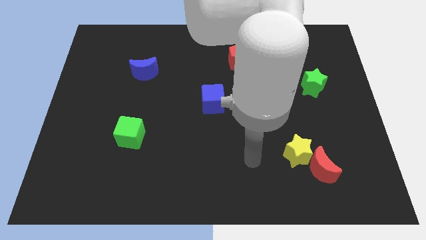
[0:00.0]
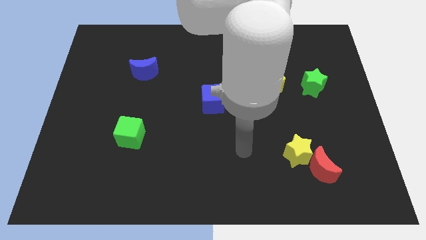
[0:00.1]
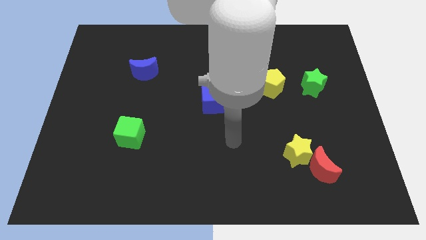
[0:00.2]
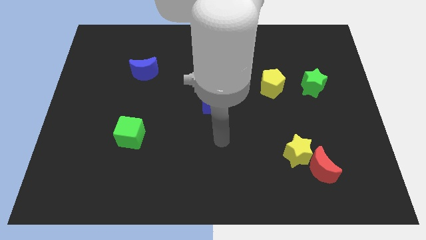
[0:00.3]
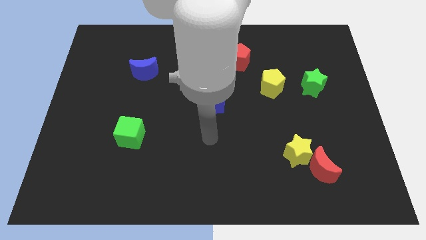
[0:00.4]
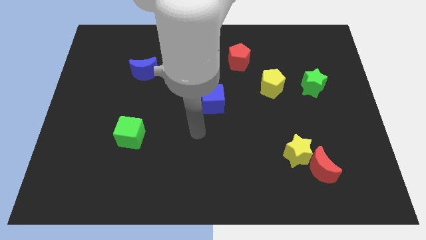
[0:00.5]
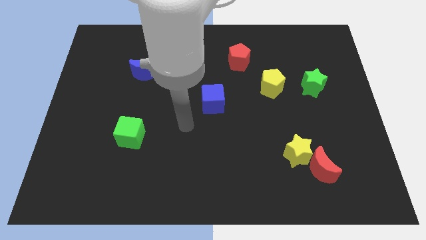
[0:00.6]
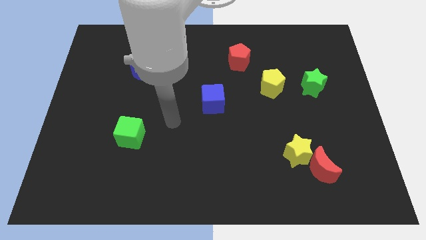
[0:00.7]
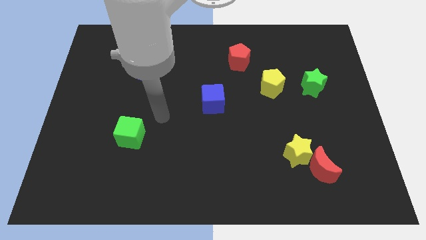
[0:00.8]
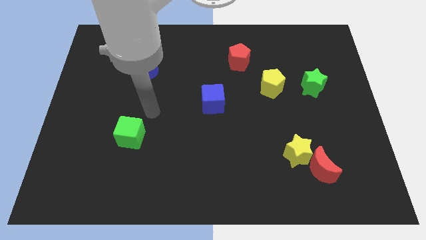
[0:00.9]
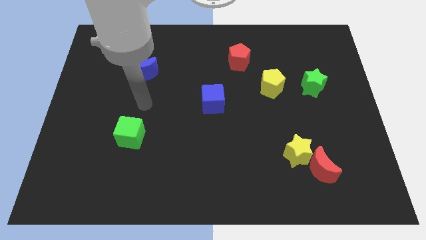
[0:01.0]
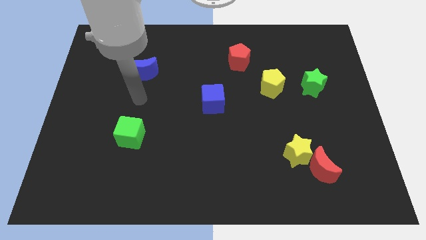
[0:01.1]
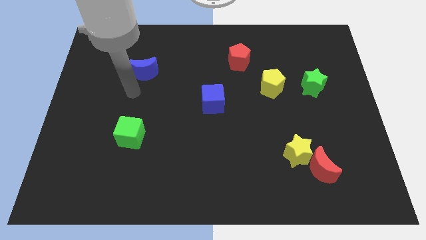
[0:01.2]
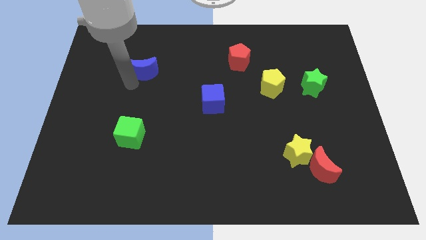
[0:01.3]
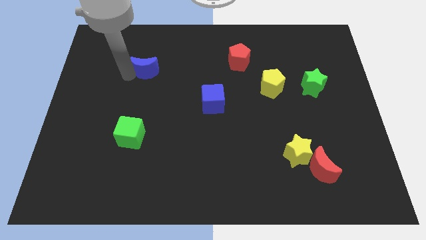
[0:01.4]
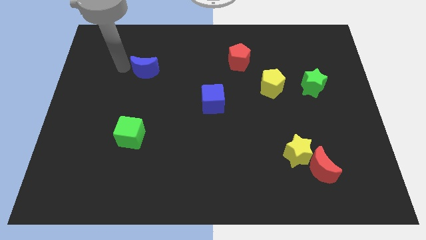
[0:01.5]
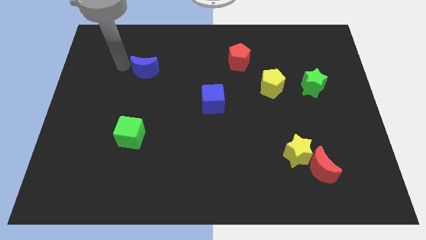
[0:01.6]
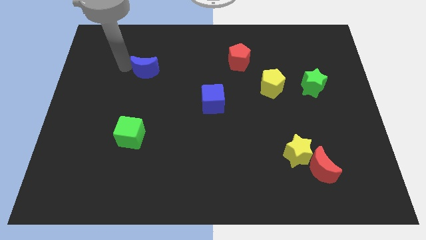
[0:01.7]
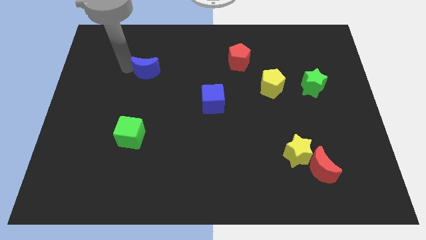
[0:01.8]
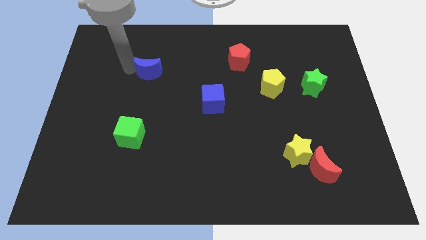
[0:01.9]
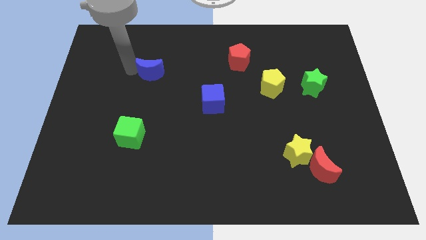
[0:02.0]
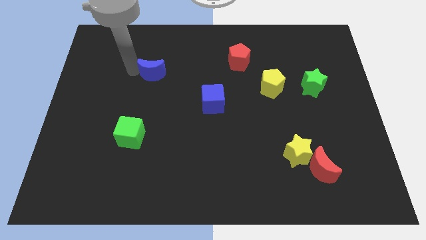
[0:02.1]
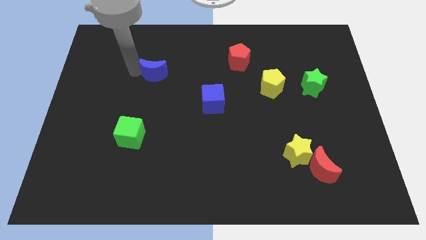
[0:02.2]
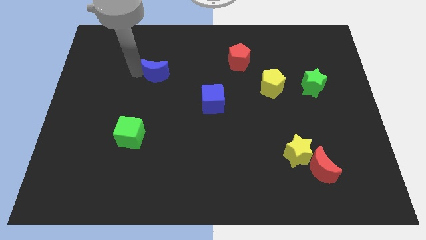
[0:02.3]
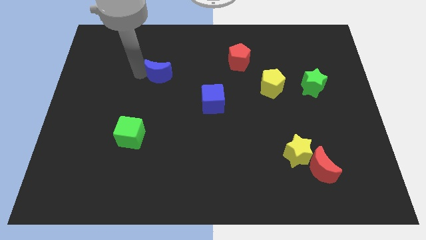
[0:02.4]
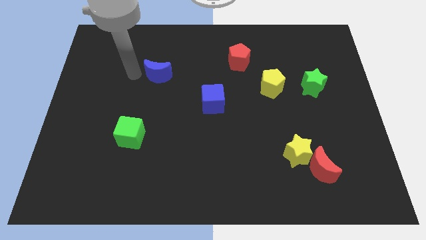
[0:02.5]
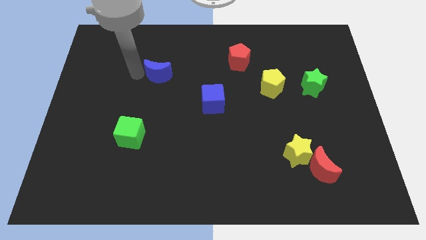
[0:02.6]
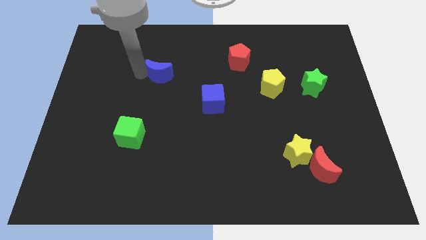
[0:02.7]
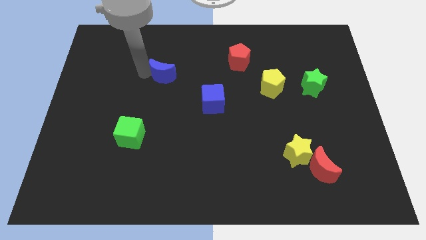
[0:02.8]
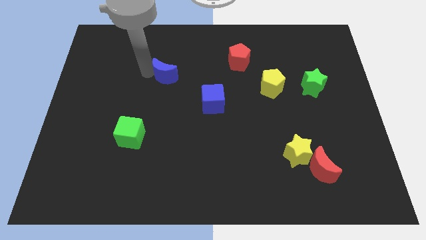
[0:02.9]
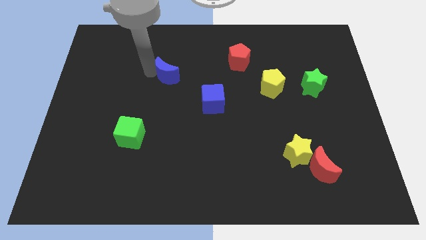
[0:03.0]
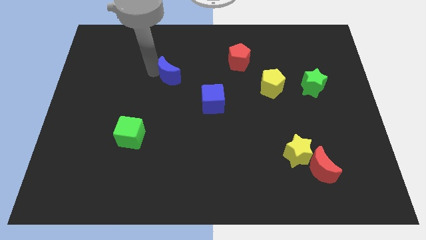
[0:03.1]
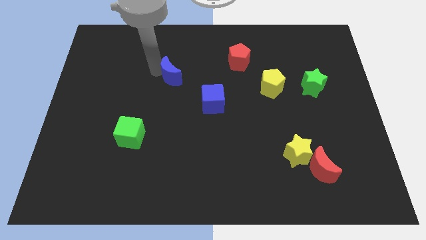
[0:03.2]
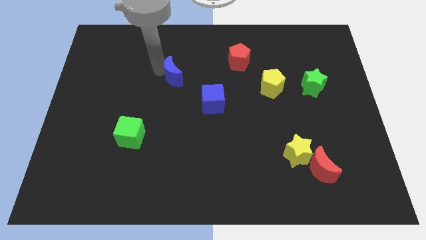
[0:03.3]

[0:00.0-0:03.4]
slightly push the blue moon right

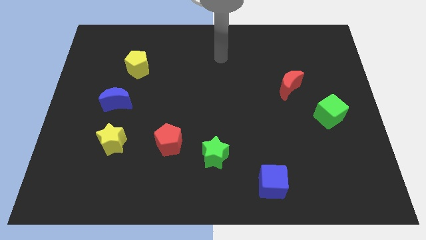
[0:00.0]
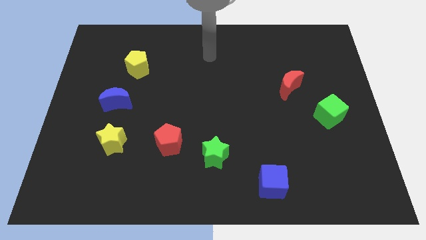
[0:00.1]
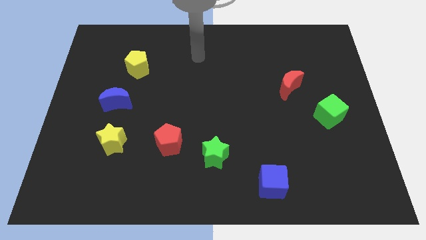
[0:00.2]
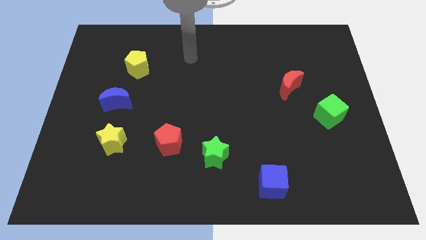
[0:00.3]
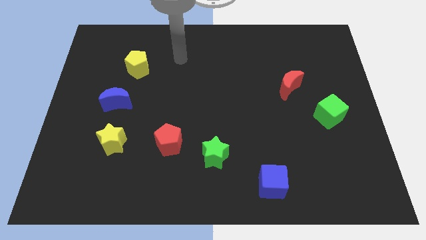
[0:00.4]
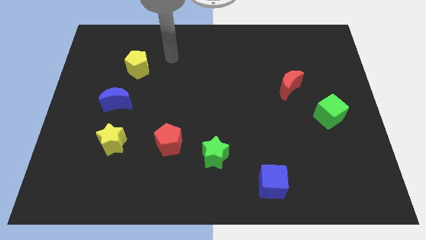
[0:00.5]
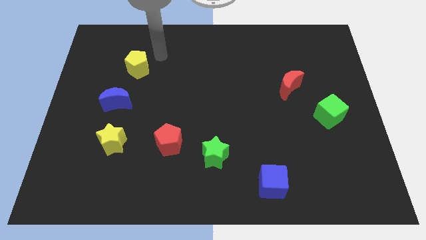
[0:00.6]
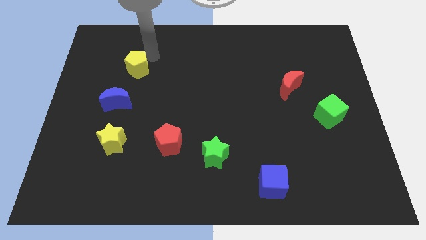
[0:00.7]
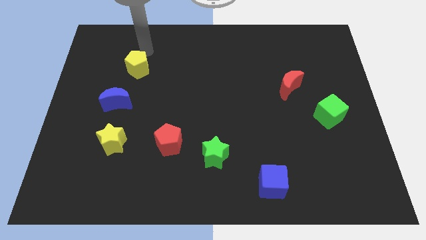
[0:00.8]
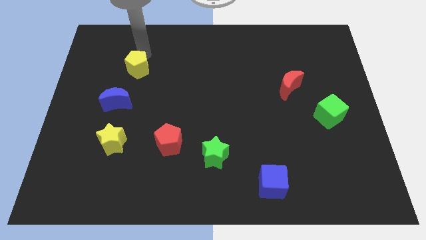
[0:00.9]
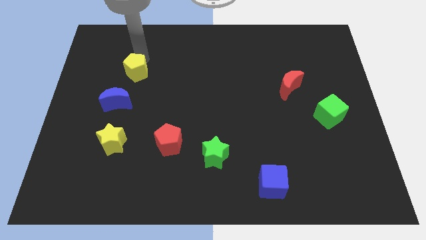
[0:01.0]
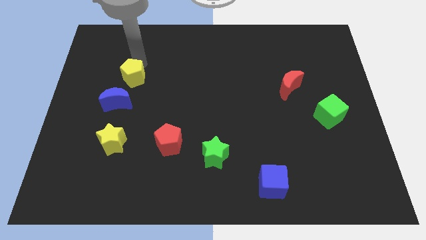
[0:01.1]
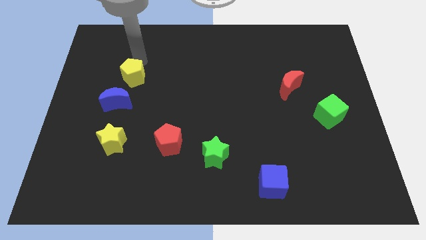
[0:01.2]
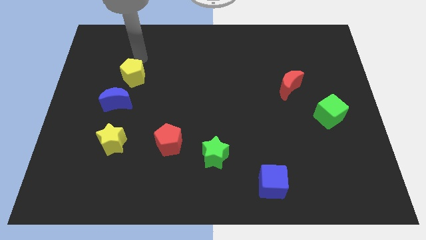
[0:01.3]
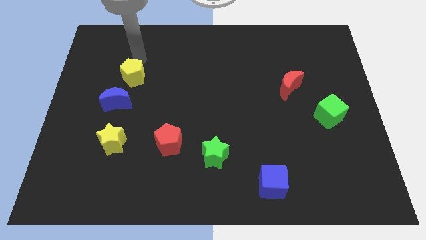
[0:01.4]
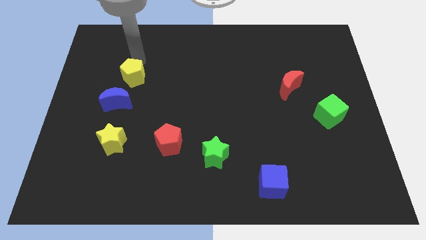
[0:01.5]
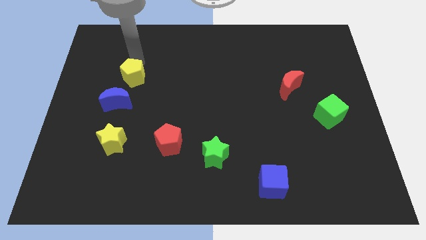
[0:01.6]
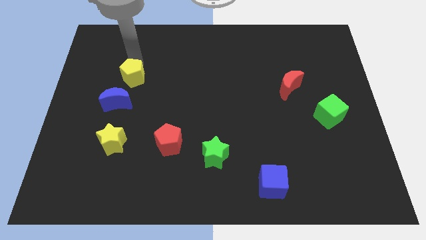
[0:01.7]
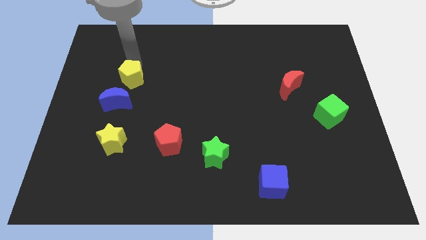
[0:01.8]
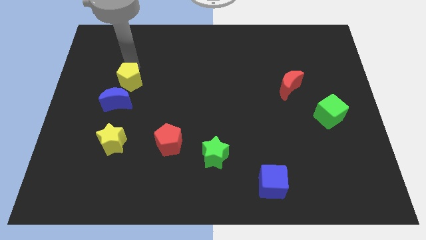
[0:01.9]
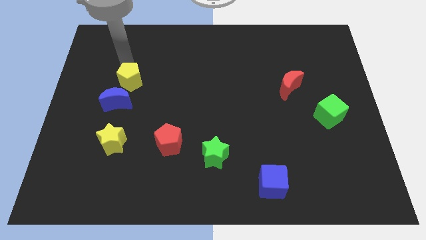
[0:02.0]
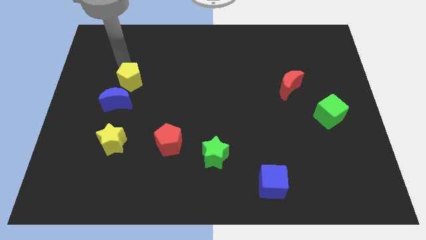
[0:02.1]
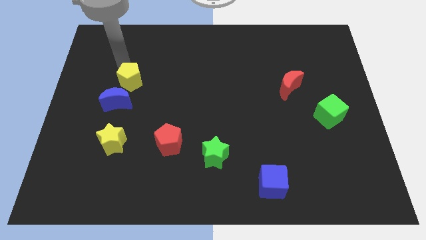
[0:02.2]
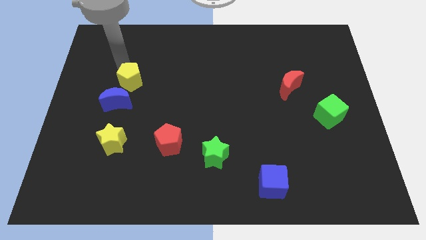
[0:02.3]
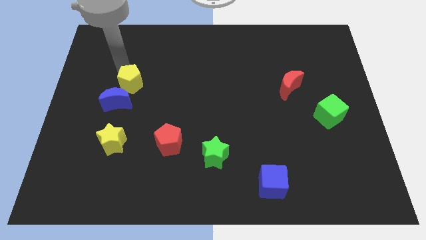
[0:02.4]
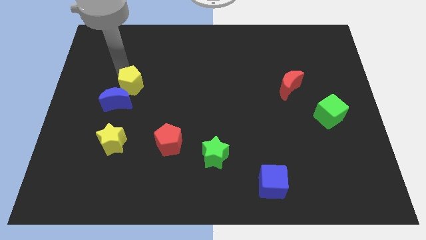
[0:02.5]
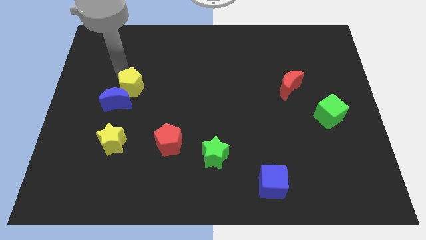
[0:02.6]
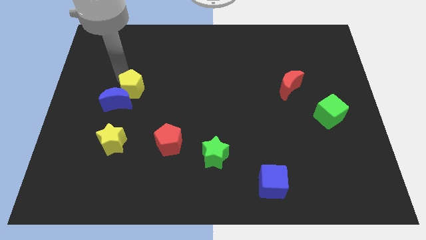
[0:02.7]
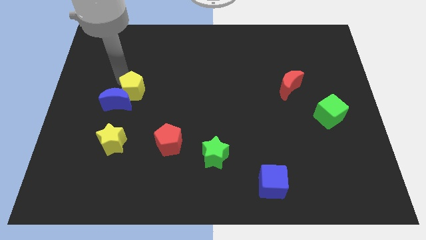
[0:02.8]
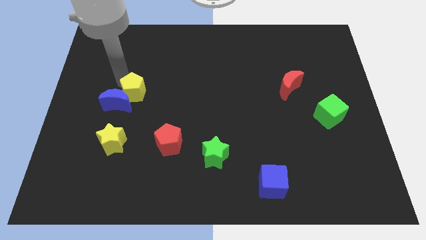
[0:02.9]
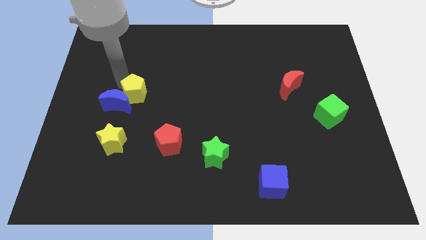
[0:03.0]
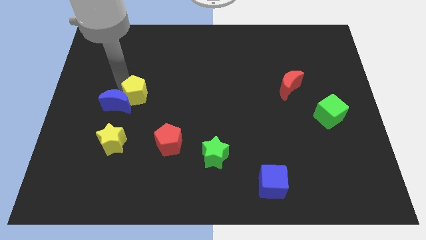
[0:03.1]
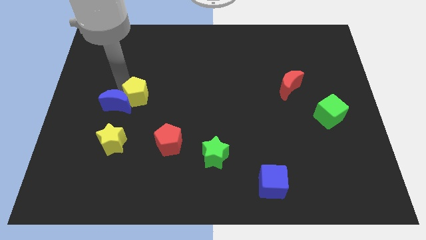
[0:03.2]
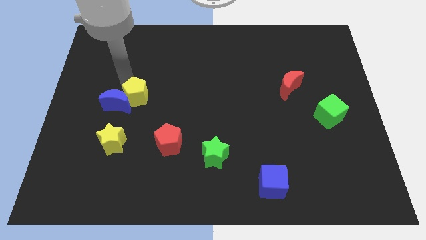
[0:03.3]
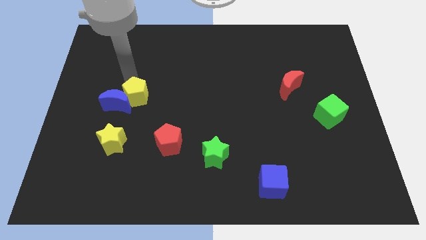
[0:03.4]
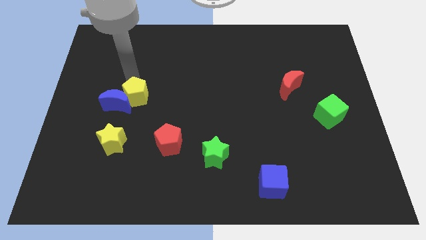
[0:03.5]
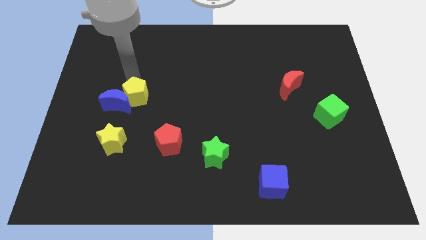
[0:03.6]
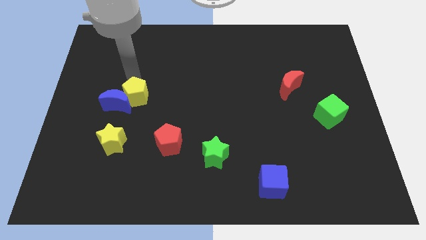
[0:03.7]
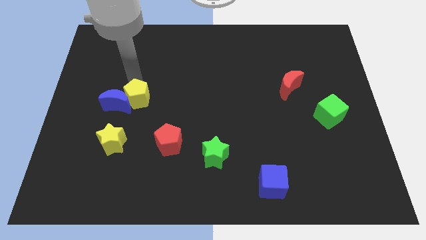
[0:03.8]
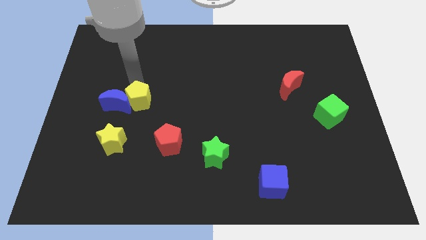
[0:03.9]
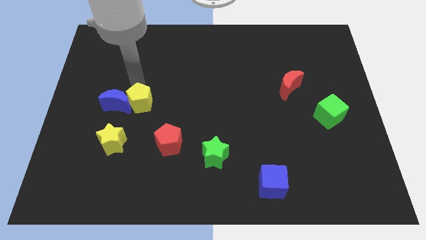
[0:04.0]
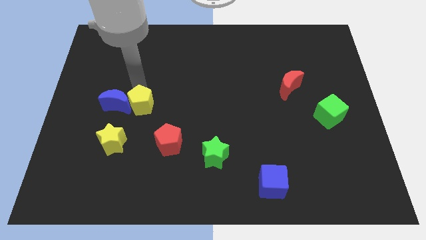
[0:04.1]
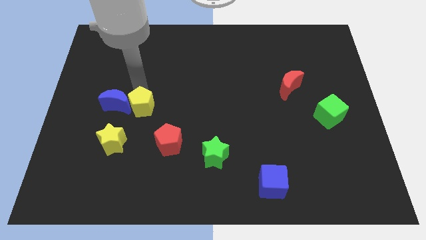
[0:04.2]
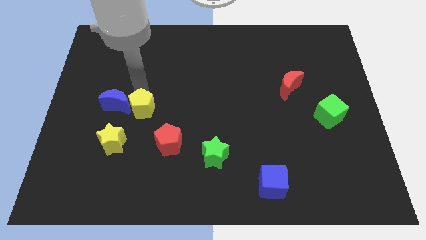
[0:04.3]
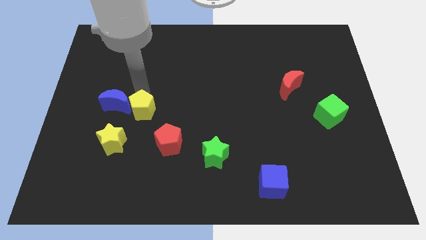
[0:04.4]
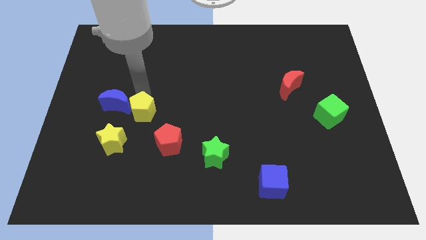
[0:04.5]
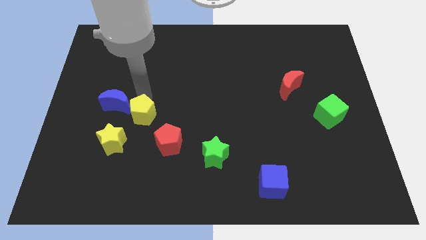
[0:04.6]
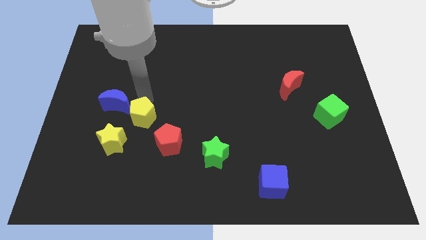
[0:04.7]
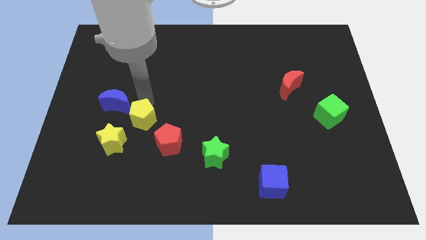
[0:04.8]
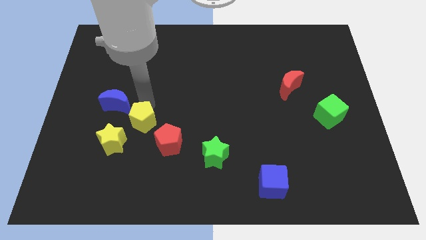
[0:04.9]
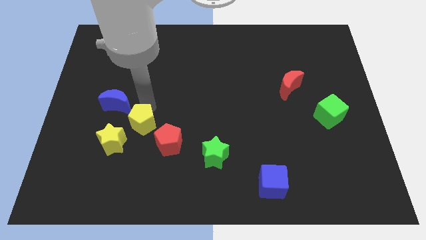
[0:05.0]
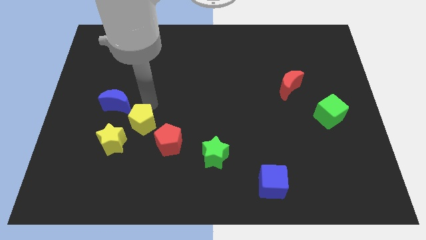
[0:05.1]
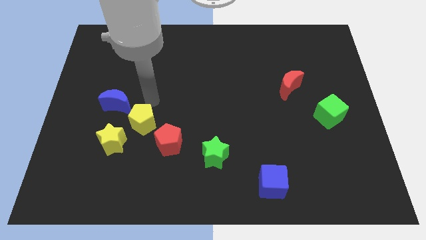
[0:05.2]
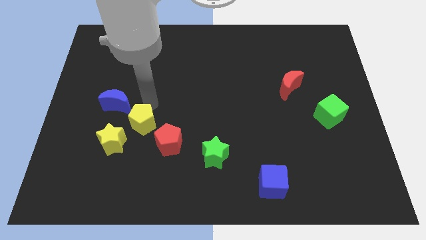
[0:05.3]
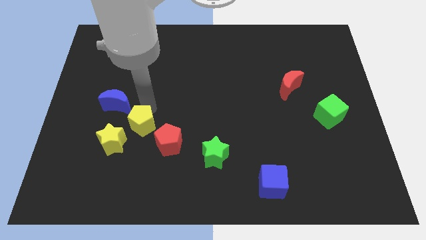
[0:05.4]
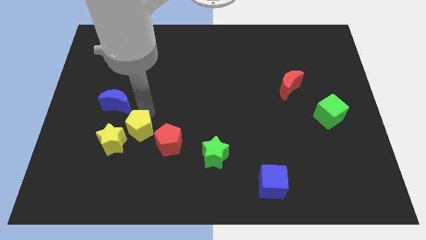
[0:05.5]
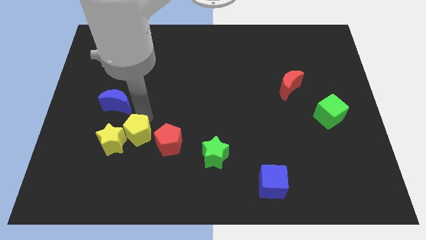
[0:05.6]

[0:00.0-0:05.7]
move the yellow pentagon downwards
